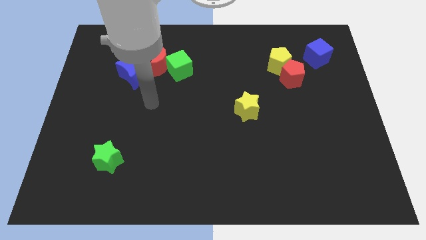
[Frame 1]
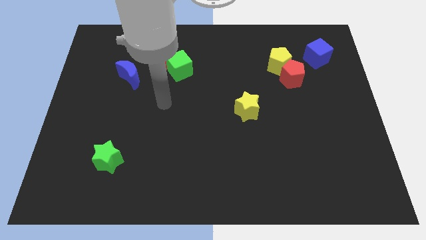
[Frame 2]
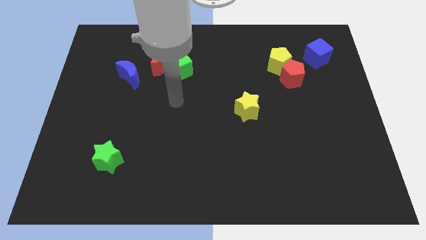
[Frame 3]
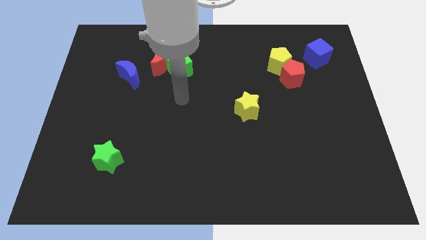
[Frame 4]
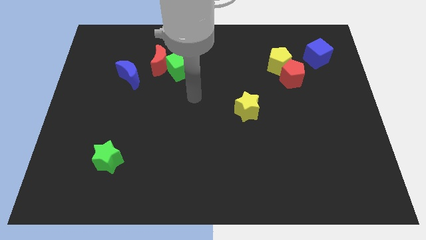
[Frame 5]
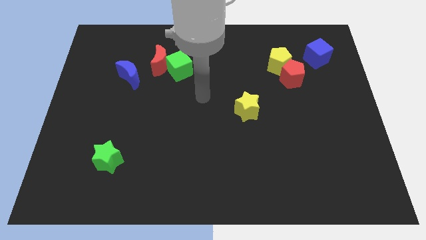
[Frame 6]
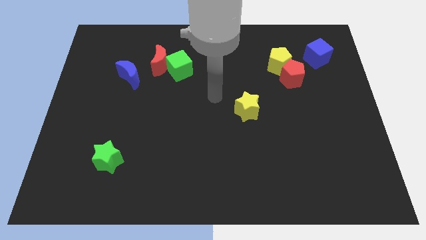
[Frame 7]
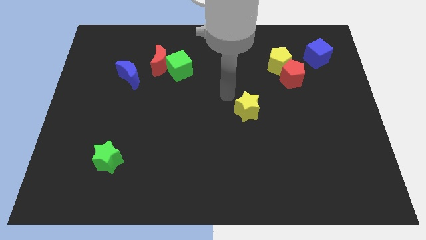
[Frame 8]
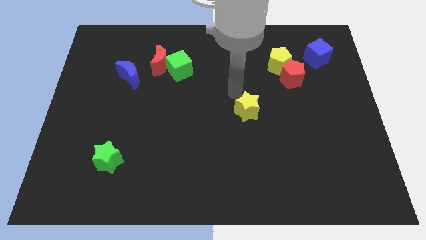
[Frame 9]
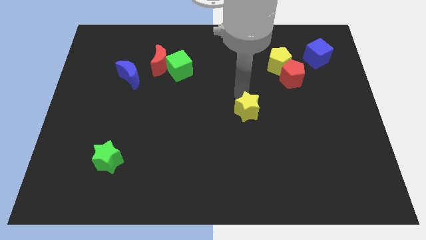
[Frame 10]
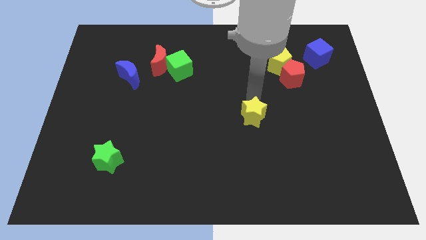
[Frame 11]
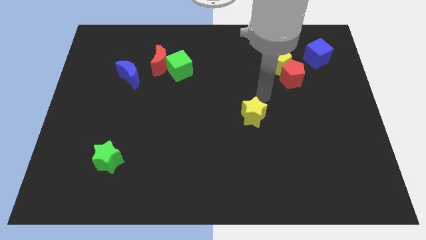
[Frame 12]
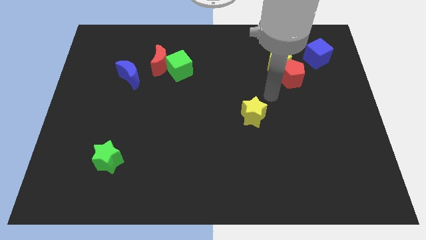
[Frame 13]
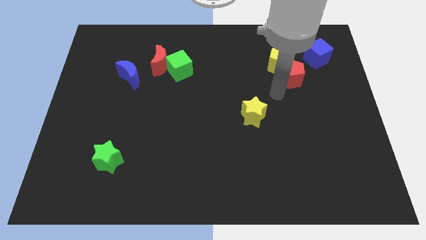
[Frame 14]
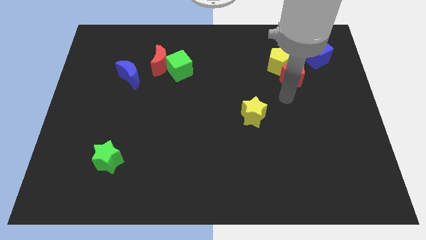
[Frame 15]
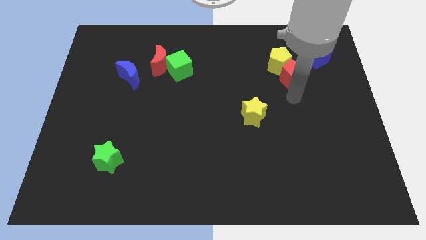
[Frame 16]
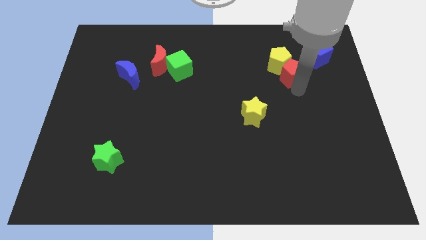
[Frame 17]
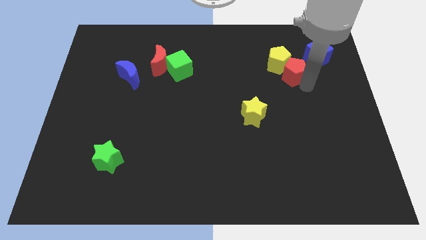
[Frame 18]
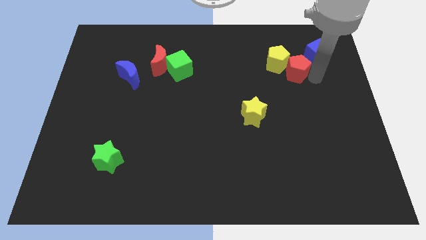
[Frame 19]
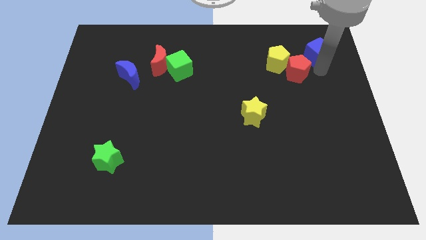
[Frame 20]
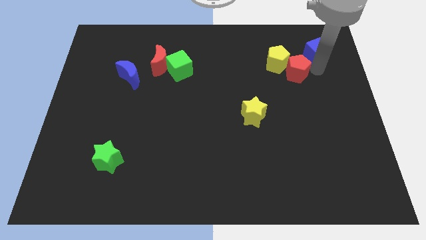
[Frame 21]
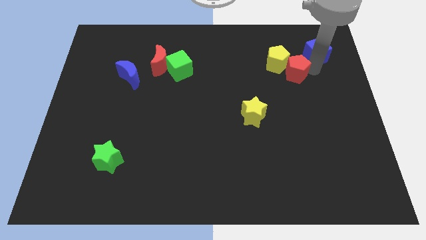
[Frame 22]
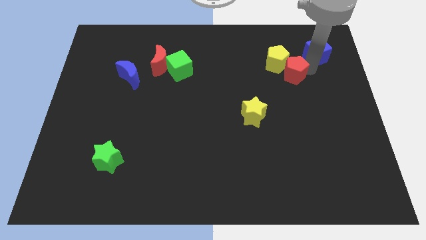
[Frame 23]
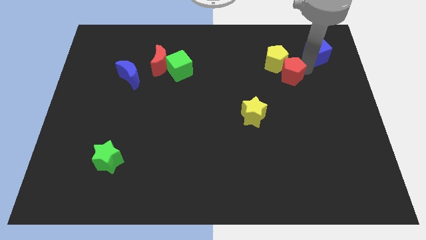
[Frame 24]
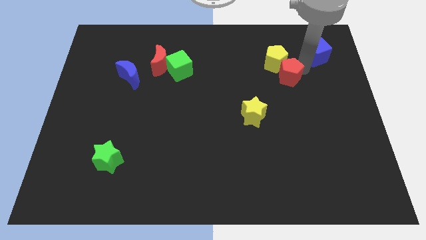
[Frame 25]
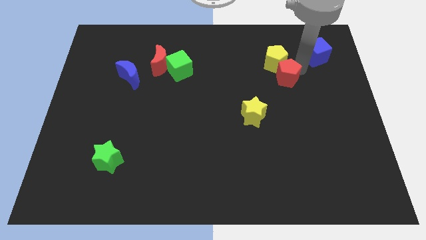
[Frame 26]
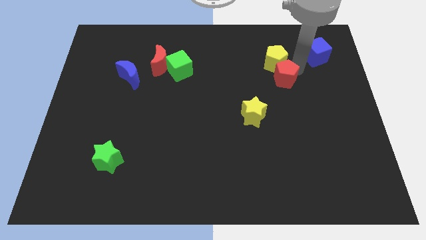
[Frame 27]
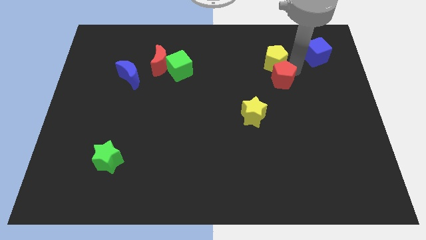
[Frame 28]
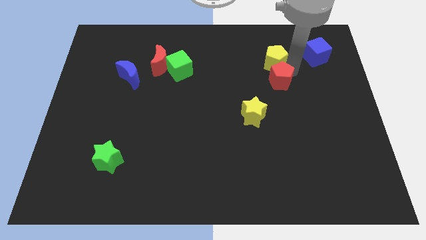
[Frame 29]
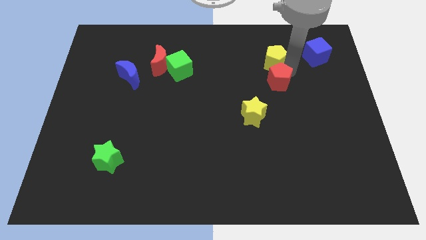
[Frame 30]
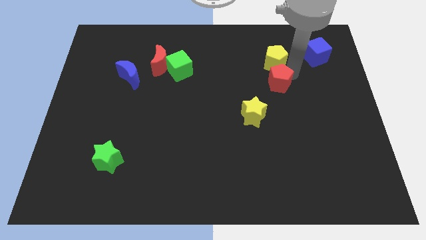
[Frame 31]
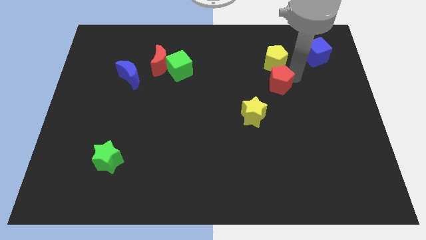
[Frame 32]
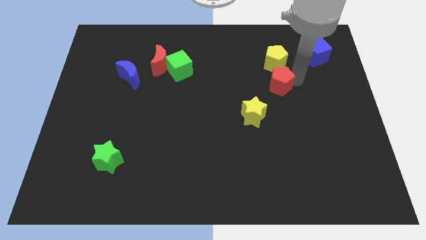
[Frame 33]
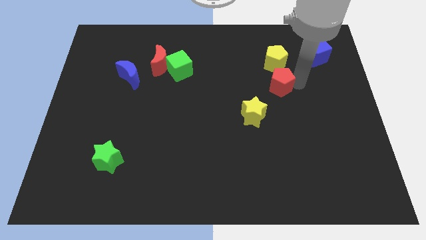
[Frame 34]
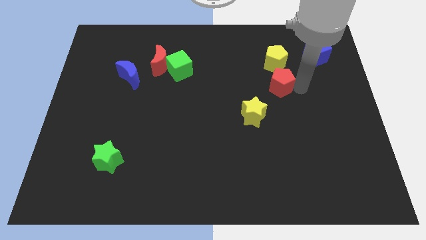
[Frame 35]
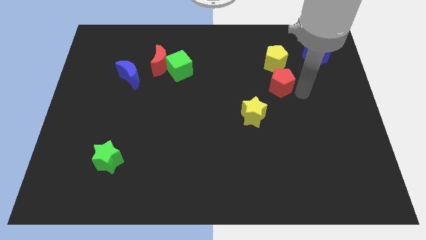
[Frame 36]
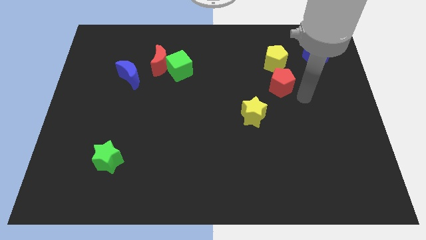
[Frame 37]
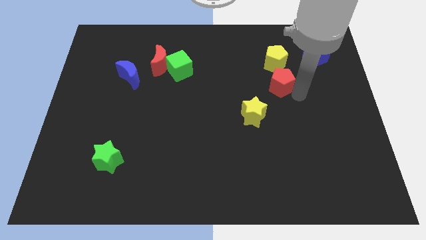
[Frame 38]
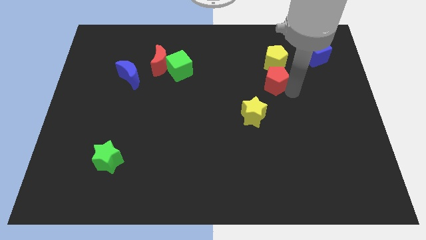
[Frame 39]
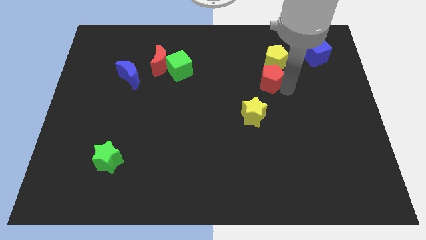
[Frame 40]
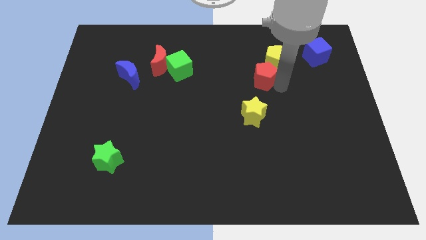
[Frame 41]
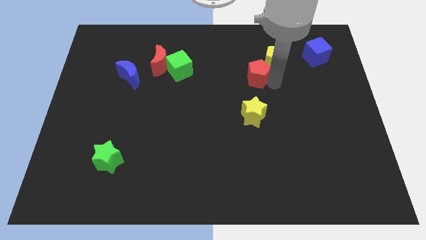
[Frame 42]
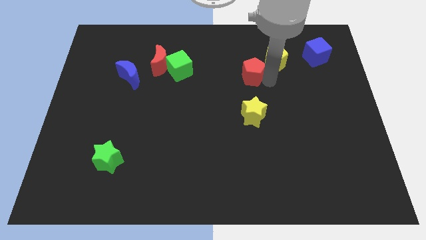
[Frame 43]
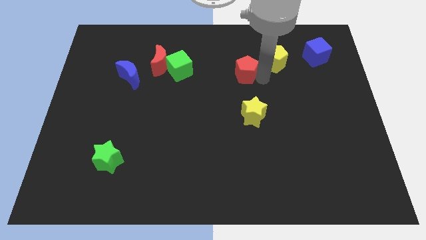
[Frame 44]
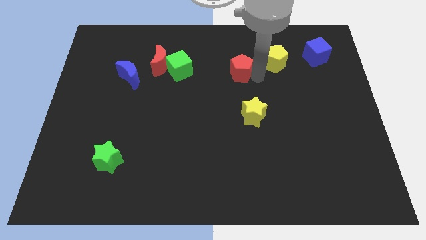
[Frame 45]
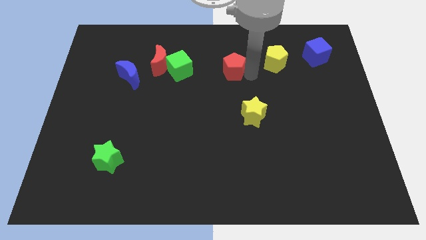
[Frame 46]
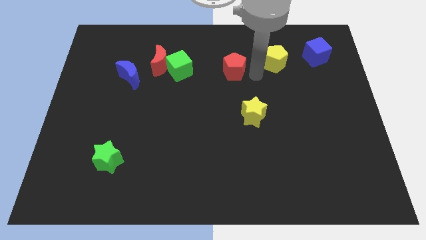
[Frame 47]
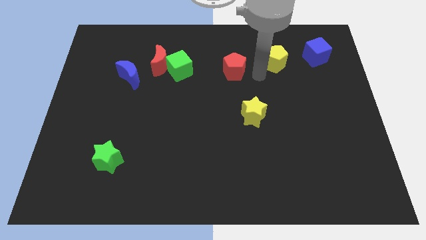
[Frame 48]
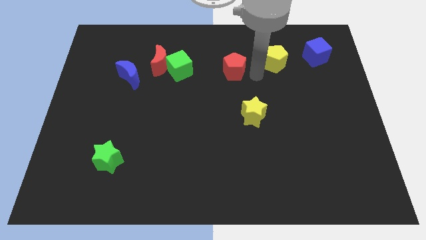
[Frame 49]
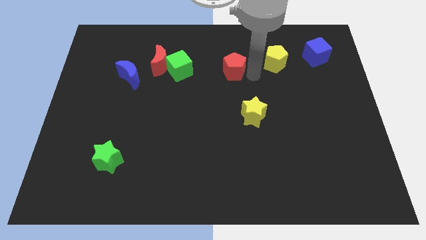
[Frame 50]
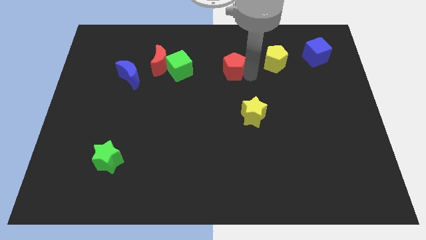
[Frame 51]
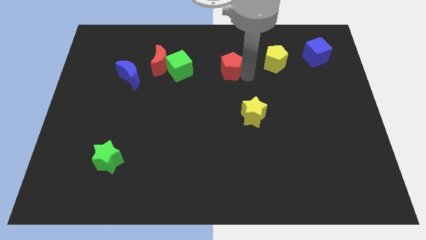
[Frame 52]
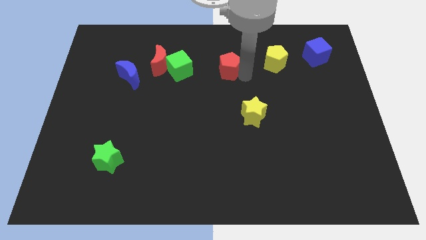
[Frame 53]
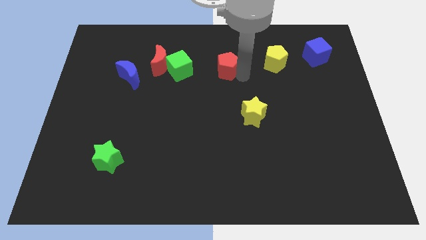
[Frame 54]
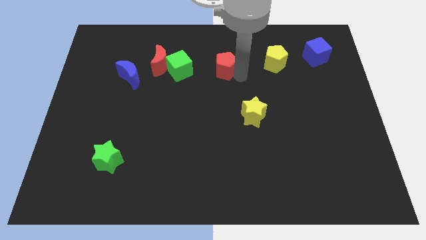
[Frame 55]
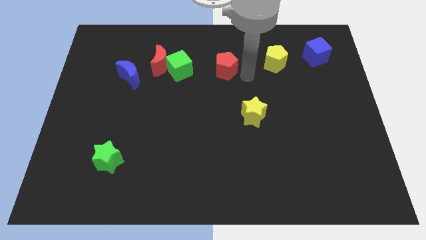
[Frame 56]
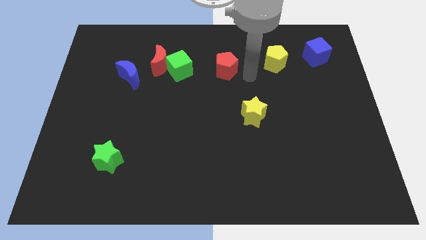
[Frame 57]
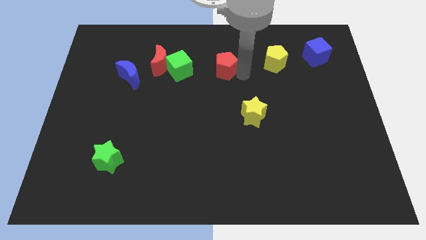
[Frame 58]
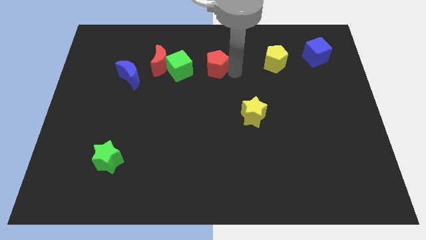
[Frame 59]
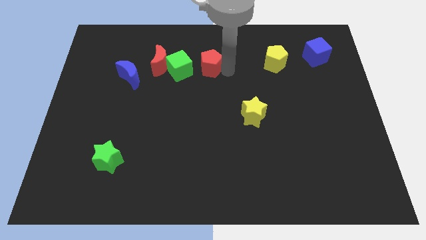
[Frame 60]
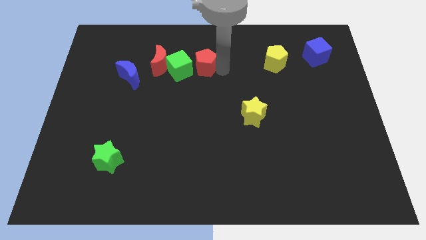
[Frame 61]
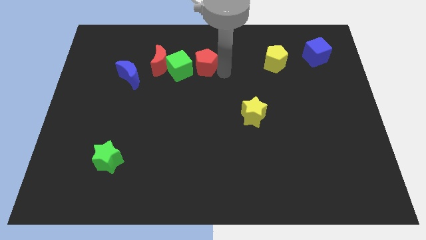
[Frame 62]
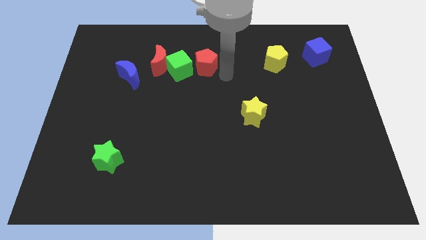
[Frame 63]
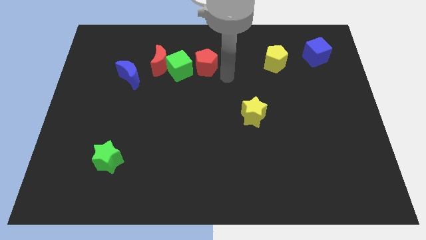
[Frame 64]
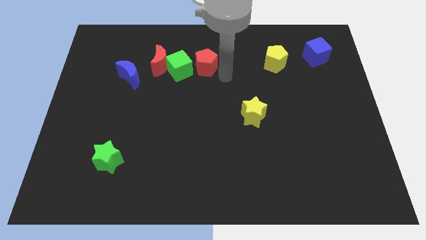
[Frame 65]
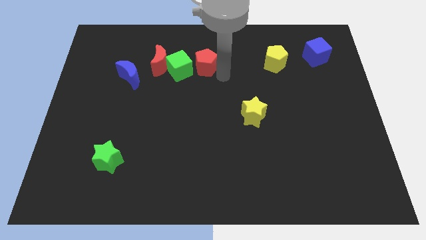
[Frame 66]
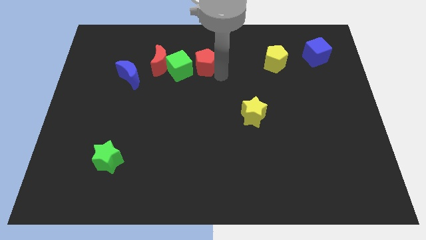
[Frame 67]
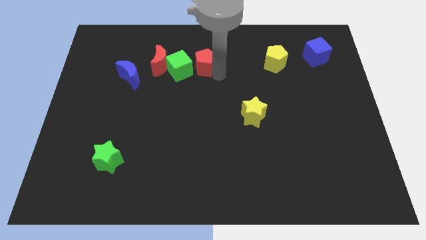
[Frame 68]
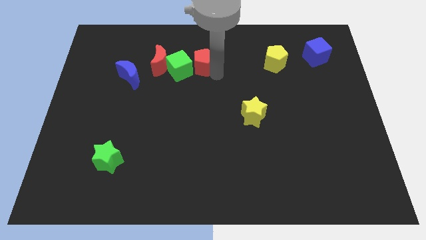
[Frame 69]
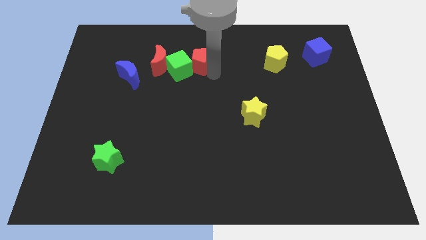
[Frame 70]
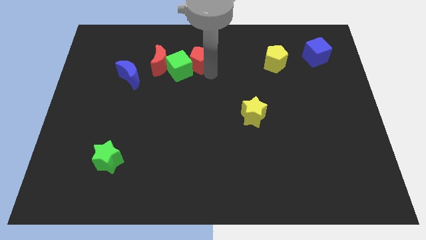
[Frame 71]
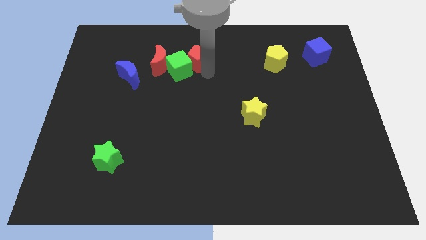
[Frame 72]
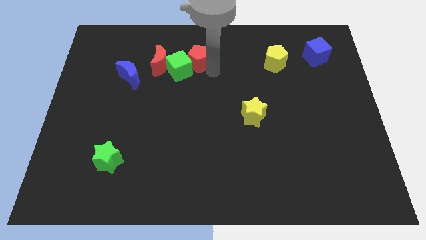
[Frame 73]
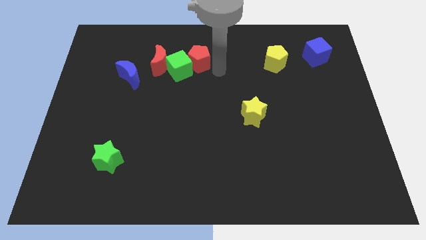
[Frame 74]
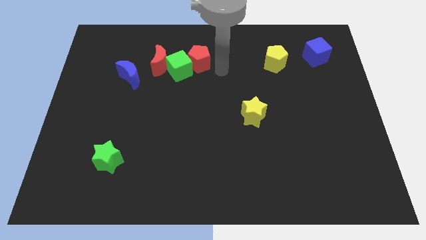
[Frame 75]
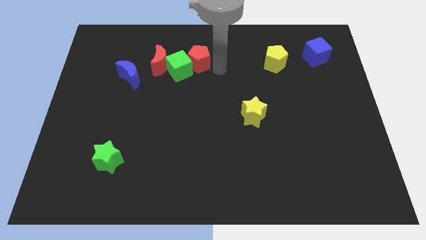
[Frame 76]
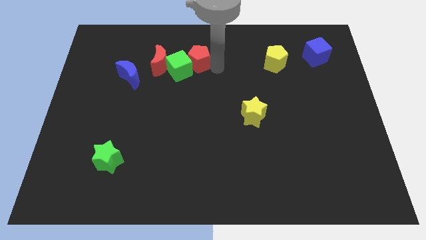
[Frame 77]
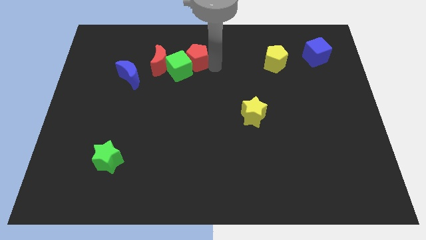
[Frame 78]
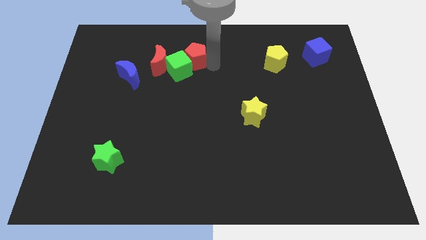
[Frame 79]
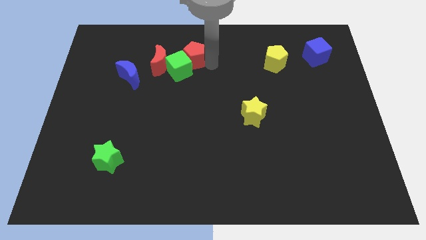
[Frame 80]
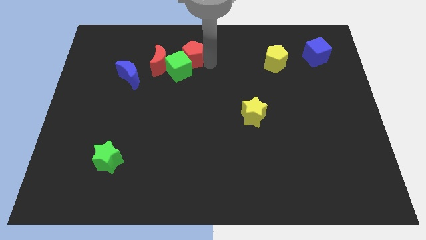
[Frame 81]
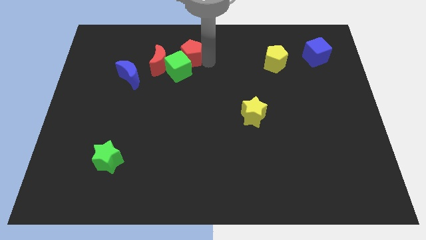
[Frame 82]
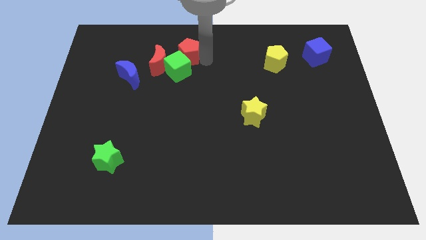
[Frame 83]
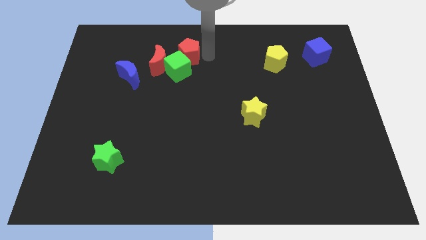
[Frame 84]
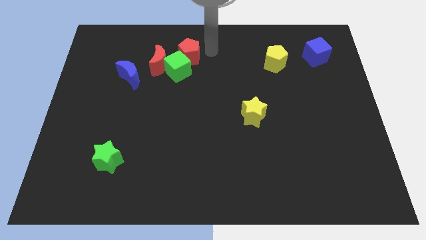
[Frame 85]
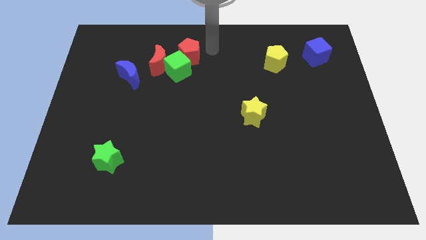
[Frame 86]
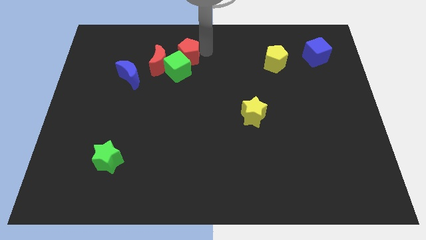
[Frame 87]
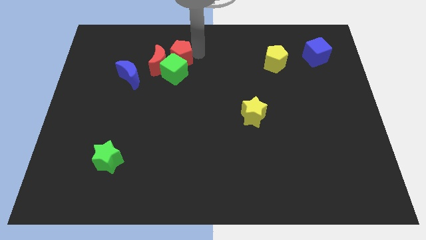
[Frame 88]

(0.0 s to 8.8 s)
push the red pentagon towards the red moon
